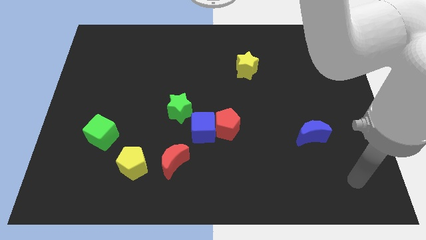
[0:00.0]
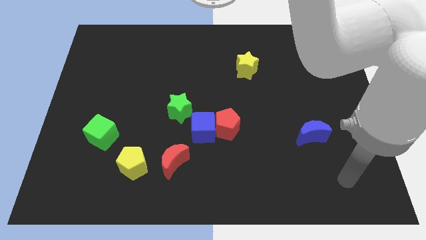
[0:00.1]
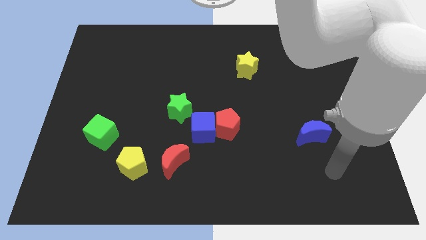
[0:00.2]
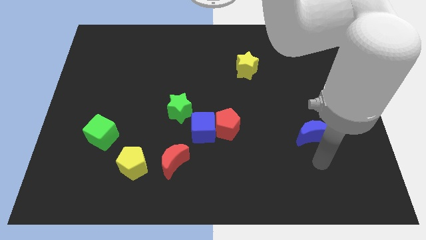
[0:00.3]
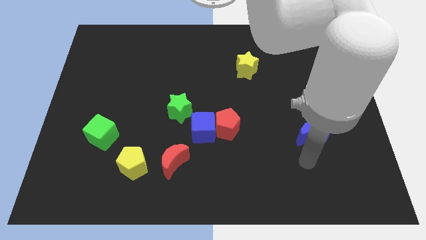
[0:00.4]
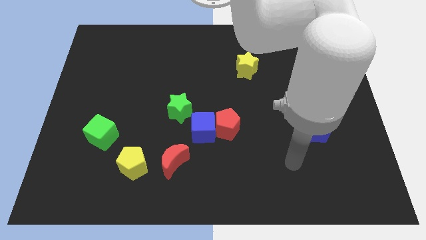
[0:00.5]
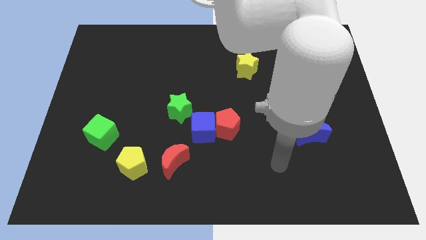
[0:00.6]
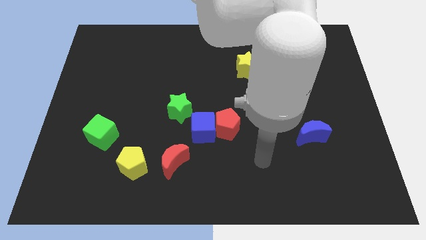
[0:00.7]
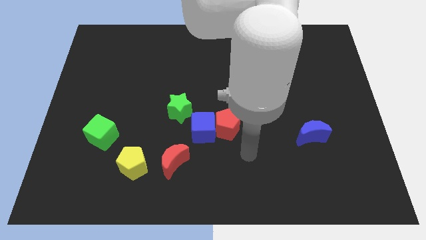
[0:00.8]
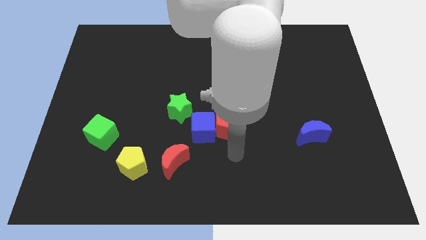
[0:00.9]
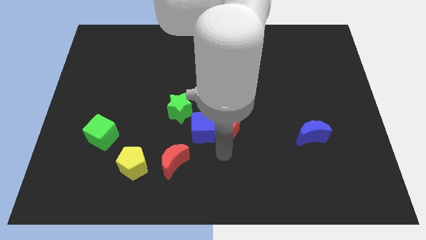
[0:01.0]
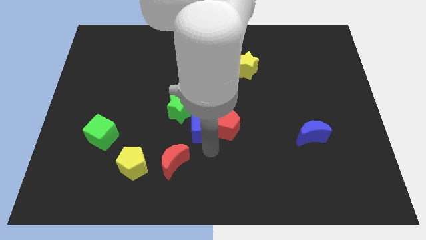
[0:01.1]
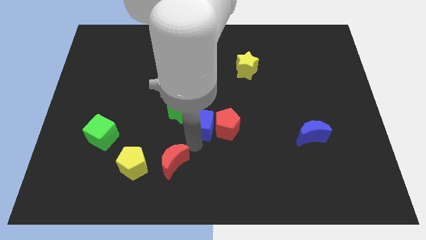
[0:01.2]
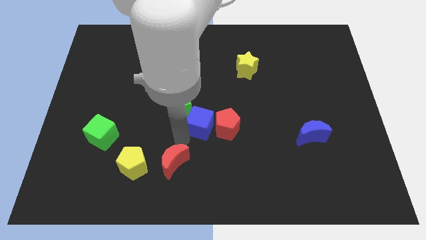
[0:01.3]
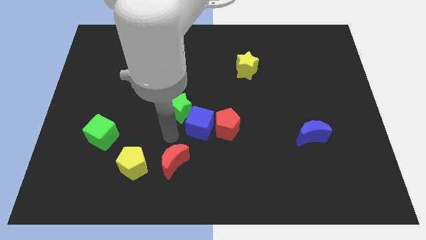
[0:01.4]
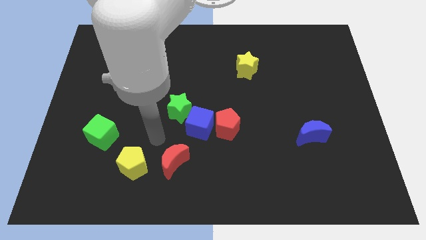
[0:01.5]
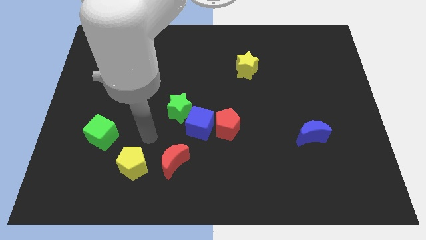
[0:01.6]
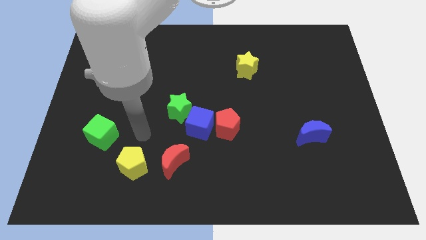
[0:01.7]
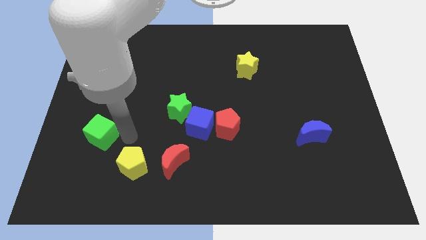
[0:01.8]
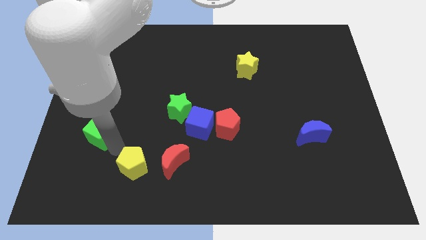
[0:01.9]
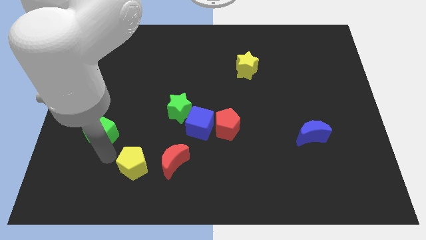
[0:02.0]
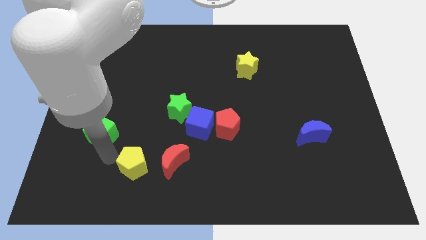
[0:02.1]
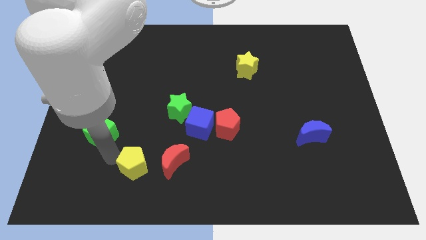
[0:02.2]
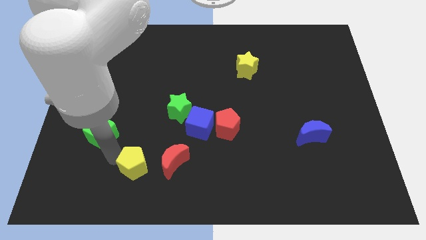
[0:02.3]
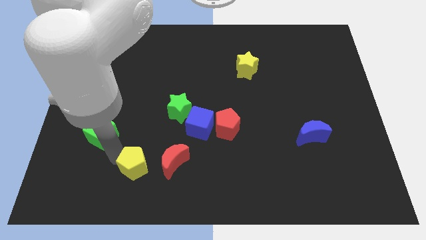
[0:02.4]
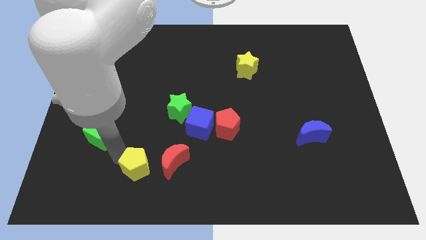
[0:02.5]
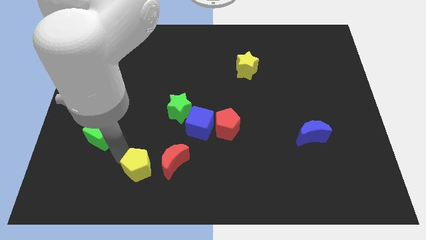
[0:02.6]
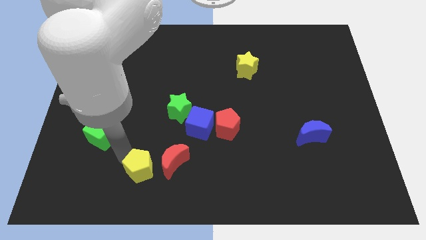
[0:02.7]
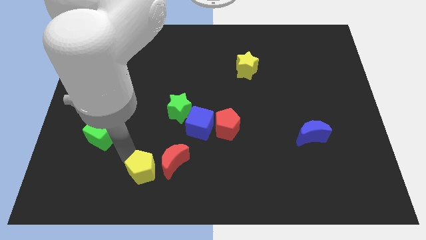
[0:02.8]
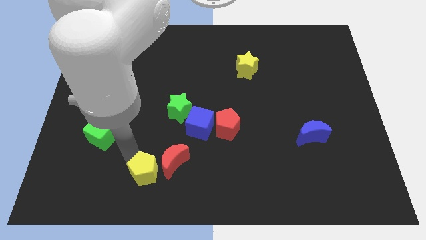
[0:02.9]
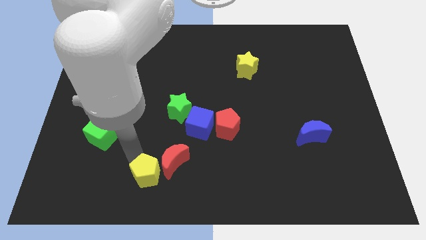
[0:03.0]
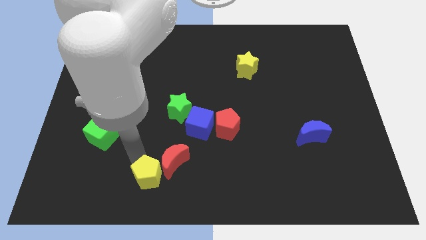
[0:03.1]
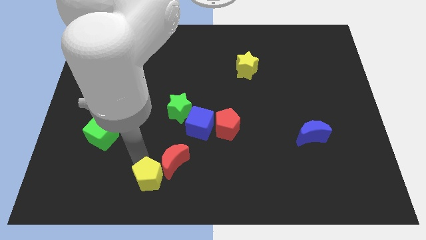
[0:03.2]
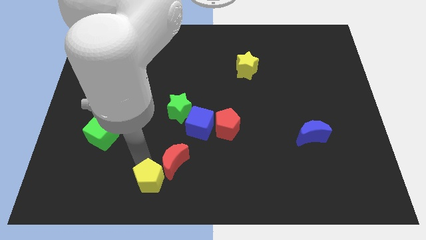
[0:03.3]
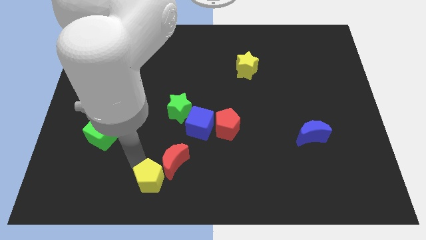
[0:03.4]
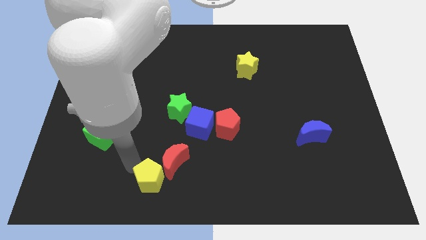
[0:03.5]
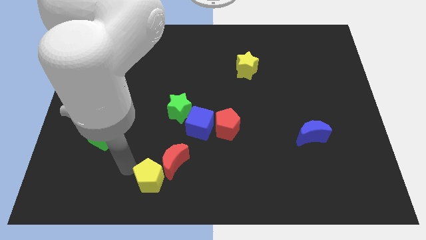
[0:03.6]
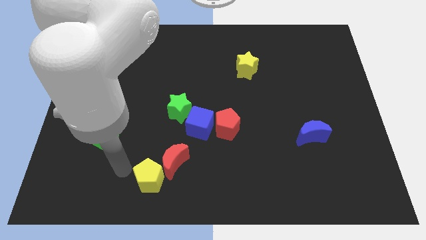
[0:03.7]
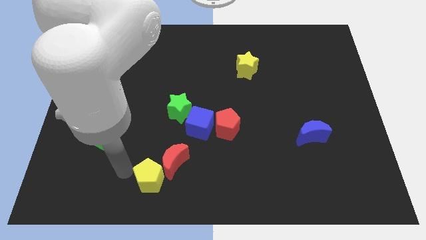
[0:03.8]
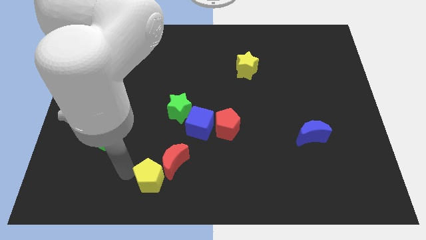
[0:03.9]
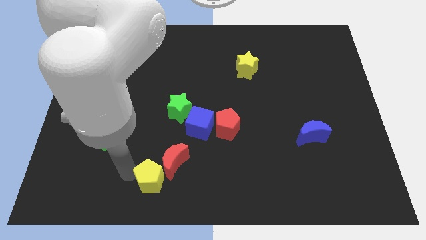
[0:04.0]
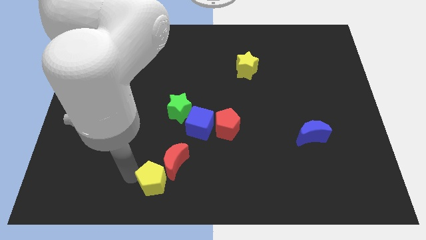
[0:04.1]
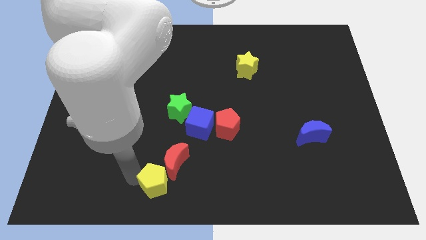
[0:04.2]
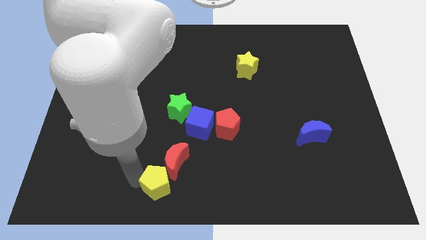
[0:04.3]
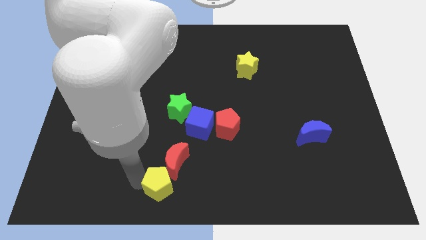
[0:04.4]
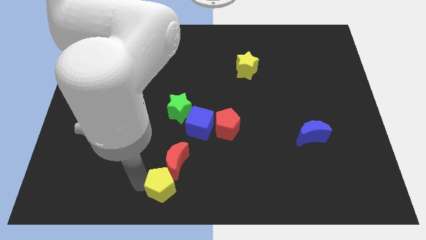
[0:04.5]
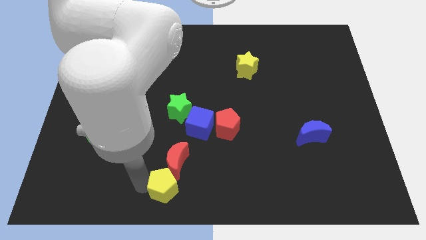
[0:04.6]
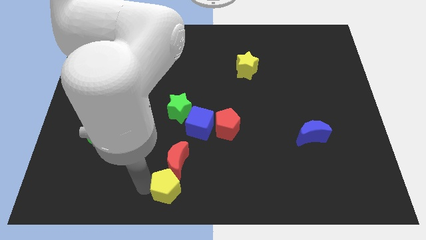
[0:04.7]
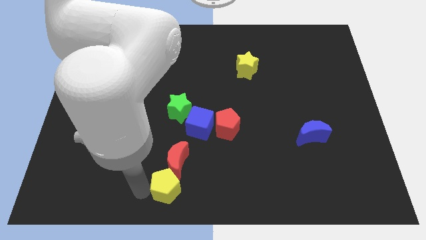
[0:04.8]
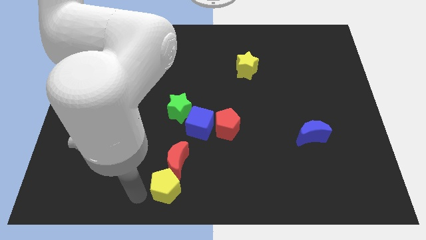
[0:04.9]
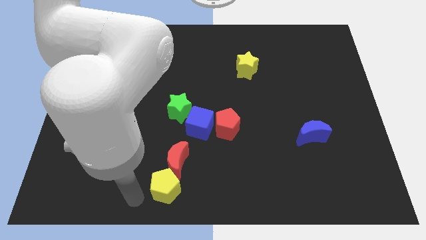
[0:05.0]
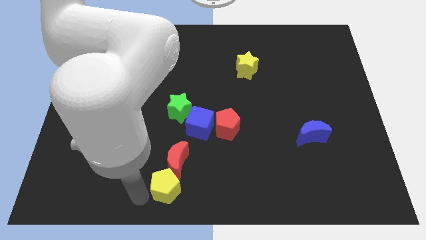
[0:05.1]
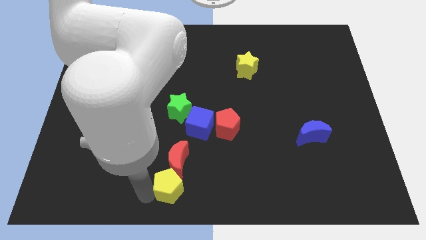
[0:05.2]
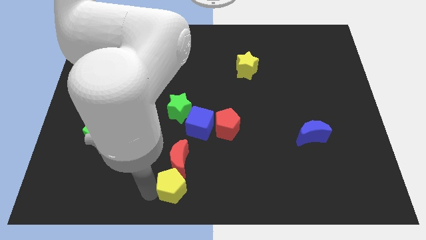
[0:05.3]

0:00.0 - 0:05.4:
move the yellow pentagon diagonally down and to the right of the red moon

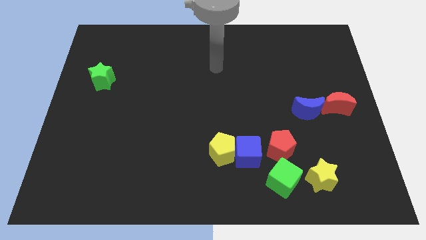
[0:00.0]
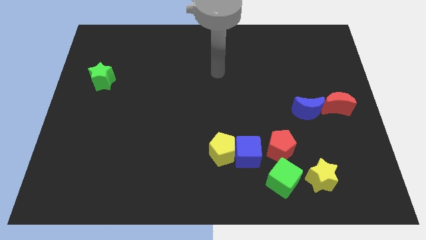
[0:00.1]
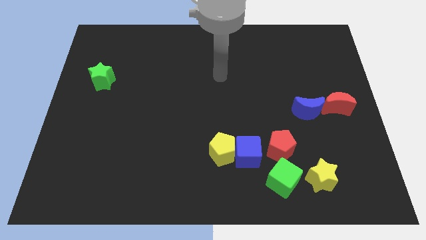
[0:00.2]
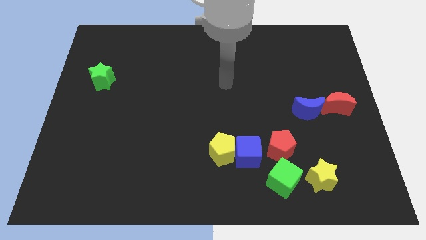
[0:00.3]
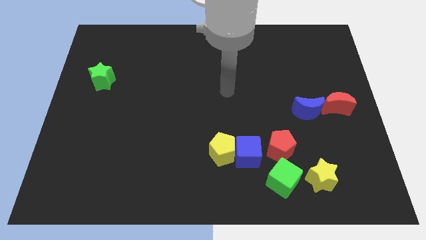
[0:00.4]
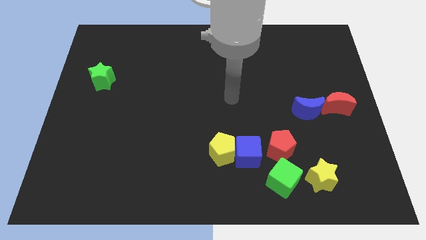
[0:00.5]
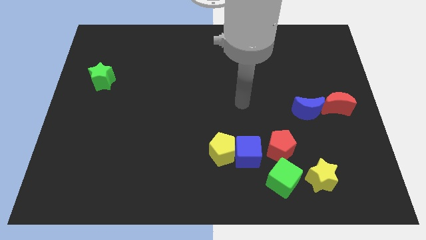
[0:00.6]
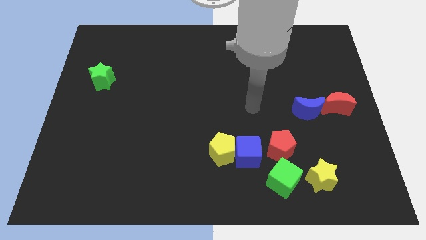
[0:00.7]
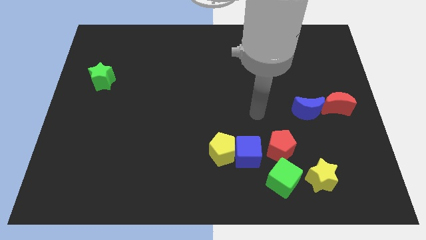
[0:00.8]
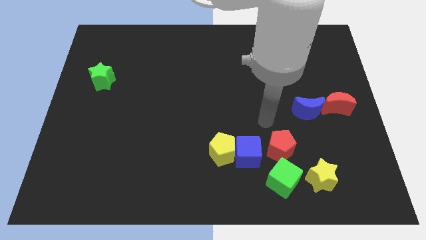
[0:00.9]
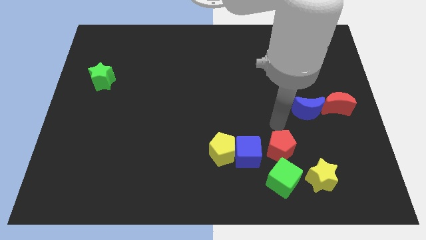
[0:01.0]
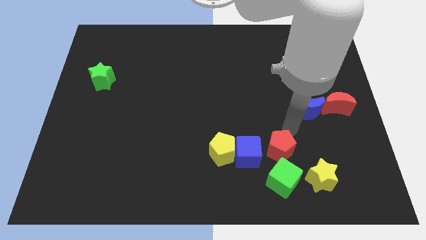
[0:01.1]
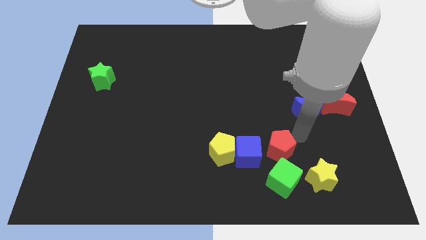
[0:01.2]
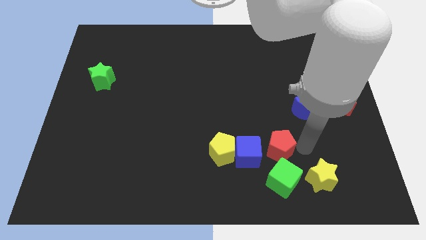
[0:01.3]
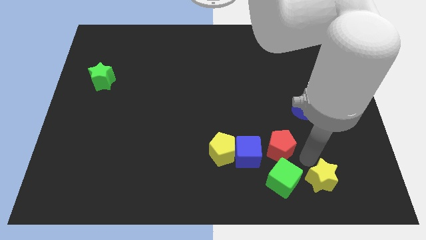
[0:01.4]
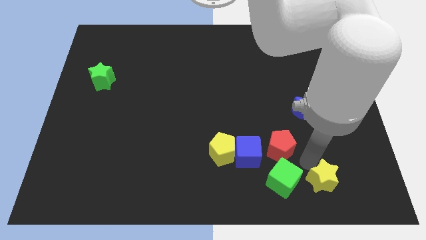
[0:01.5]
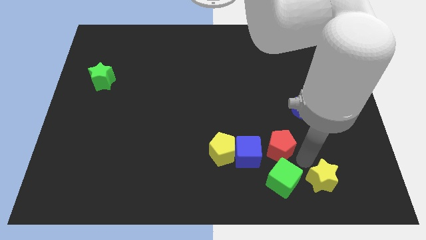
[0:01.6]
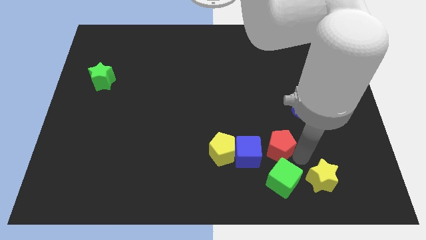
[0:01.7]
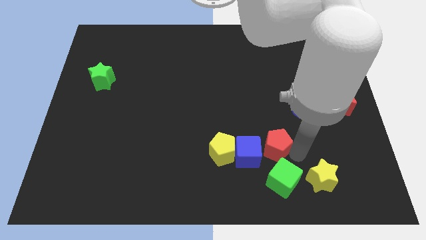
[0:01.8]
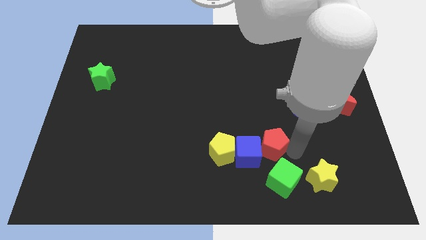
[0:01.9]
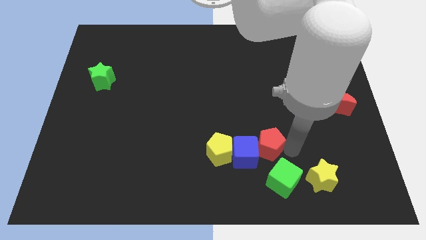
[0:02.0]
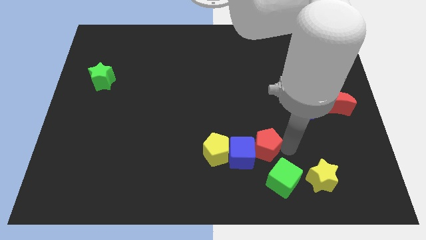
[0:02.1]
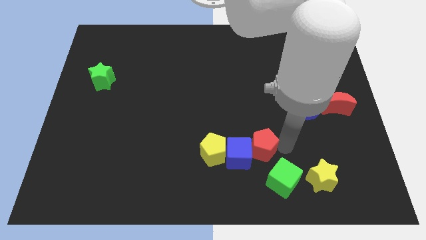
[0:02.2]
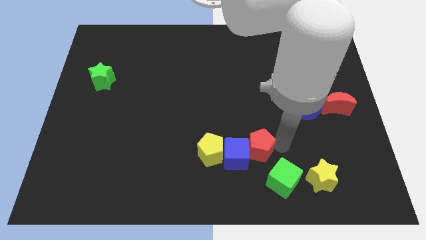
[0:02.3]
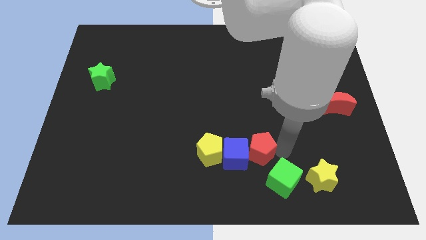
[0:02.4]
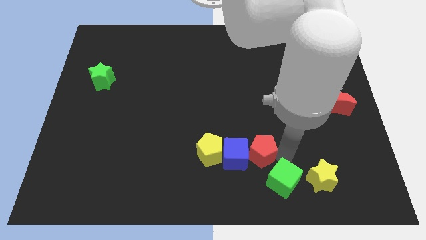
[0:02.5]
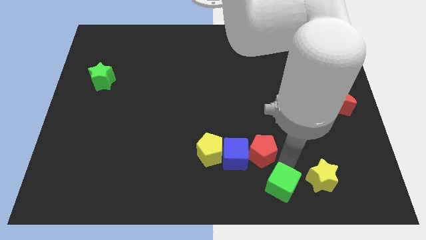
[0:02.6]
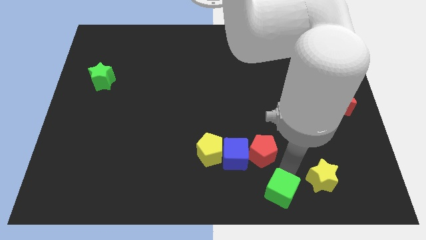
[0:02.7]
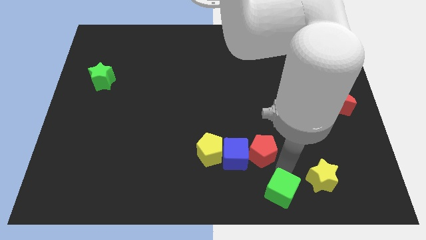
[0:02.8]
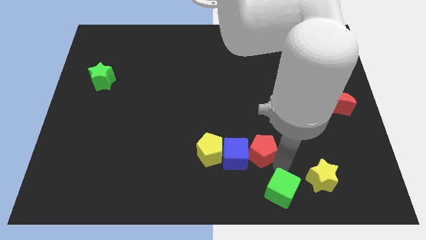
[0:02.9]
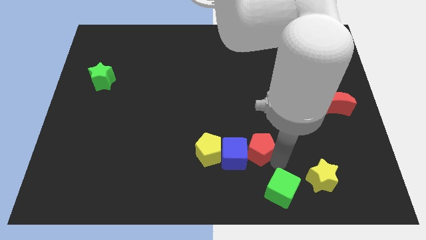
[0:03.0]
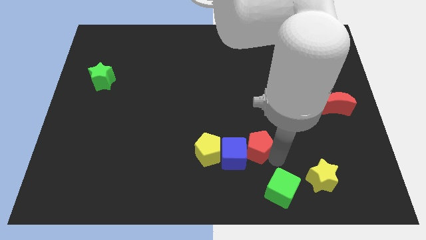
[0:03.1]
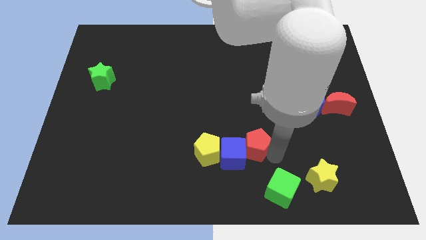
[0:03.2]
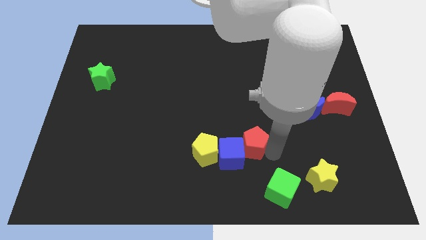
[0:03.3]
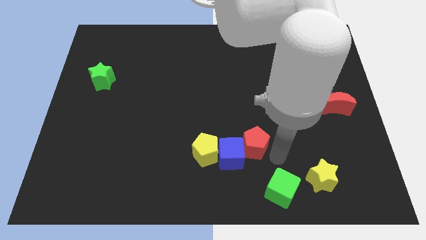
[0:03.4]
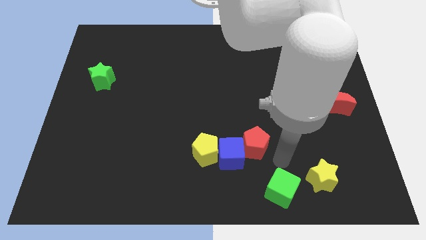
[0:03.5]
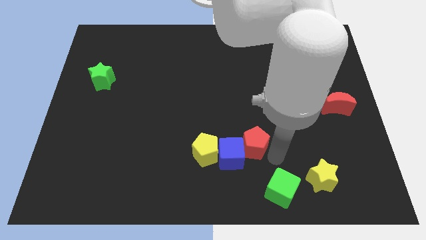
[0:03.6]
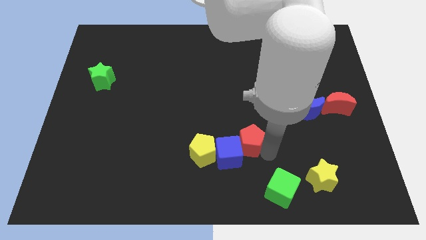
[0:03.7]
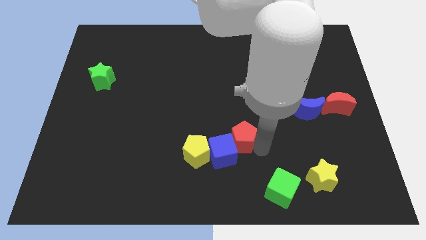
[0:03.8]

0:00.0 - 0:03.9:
put the red pentagon to the top right of the yellow pentagon
